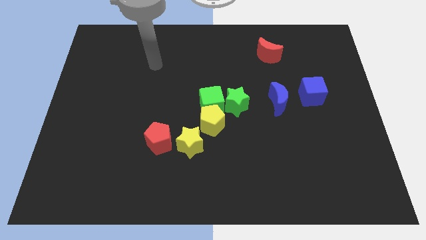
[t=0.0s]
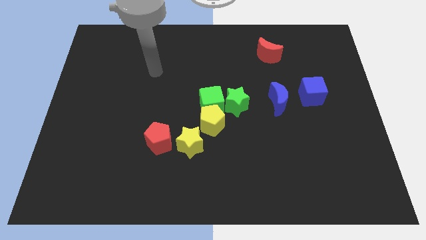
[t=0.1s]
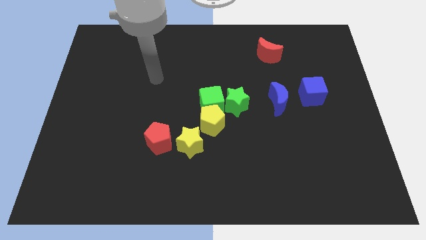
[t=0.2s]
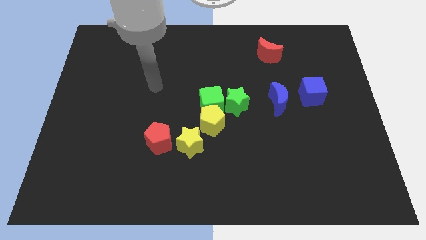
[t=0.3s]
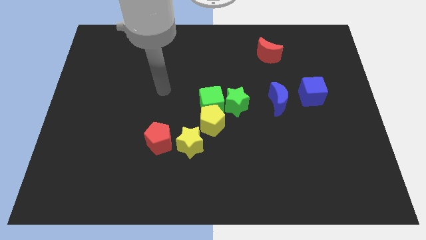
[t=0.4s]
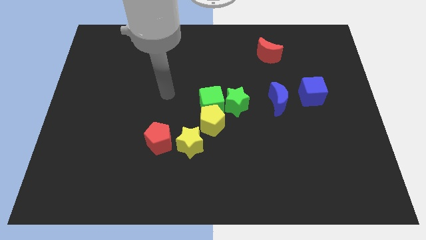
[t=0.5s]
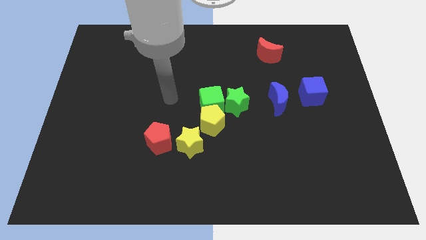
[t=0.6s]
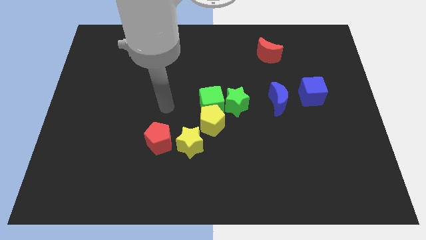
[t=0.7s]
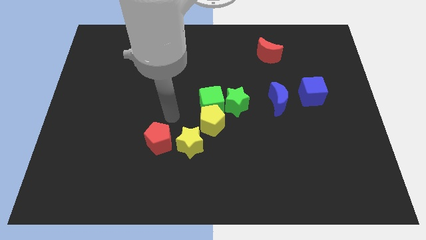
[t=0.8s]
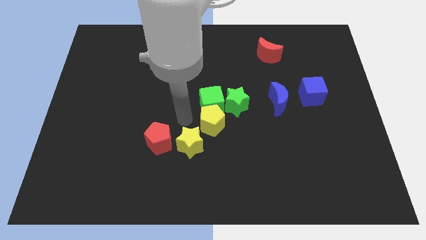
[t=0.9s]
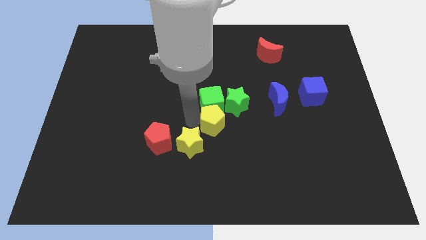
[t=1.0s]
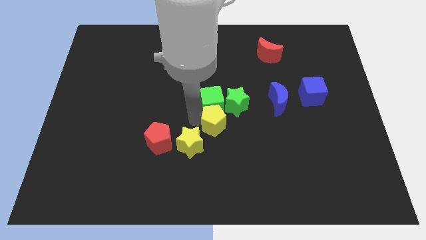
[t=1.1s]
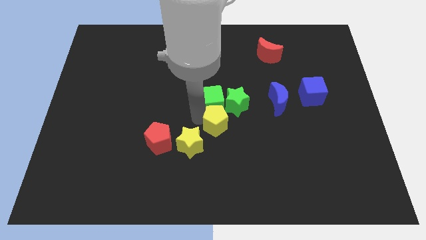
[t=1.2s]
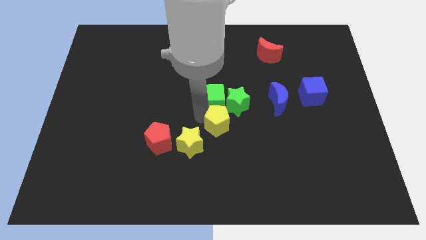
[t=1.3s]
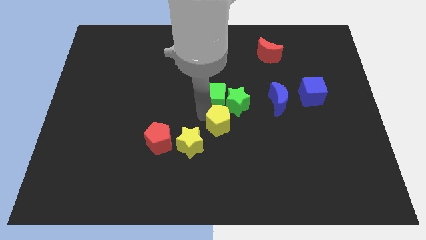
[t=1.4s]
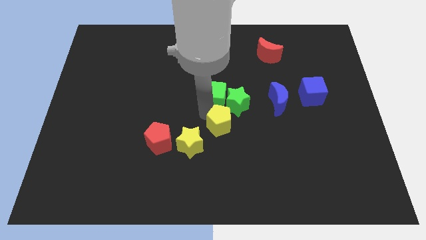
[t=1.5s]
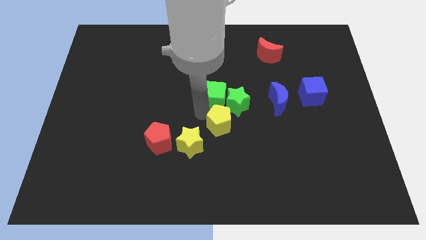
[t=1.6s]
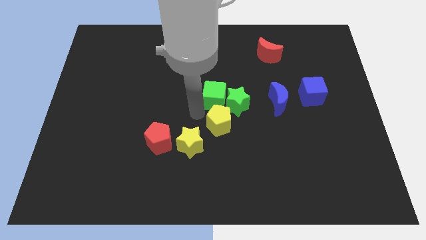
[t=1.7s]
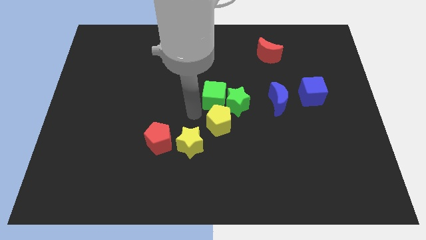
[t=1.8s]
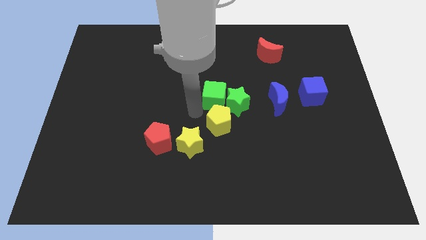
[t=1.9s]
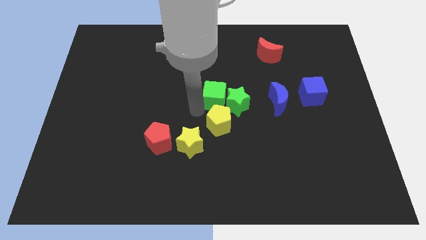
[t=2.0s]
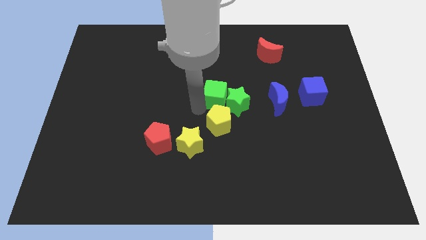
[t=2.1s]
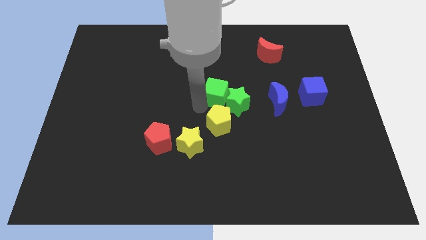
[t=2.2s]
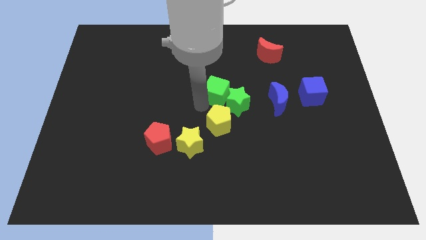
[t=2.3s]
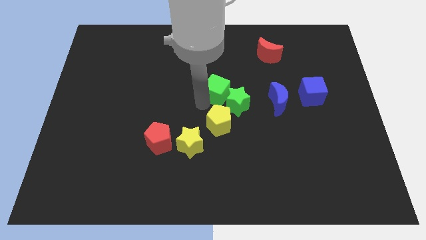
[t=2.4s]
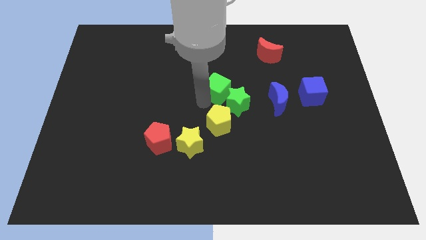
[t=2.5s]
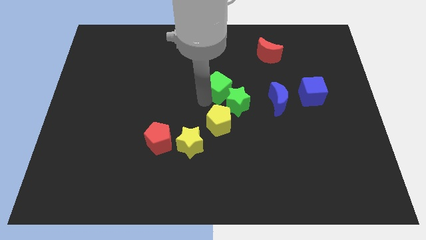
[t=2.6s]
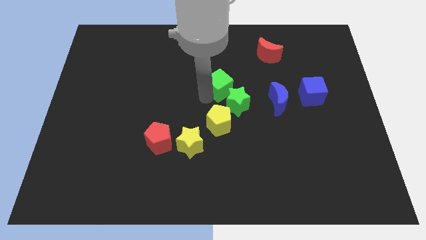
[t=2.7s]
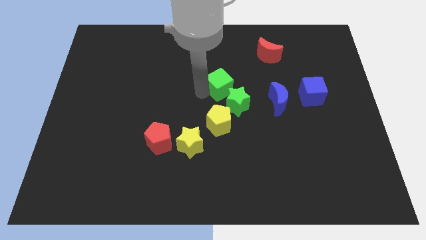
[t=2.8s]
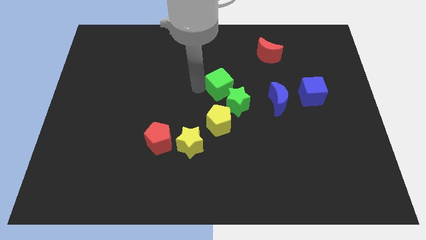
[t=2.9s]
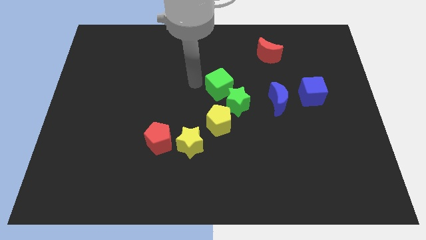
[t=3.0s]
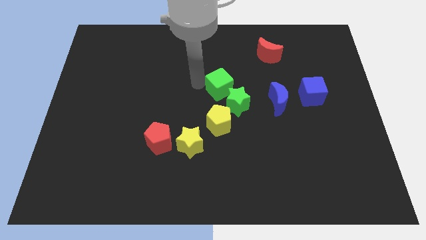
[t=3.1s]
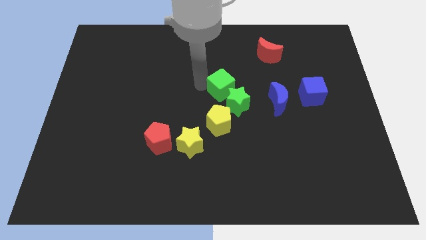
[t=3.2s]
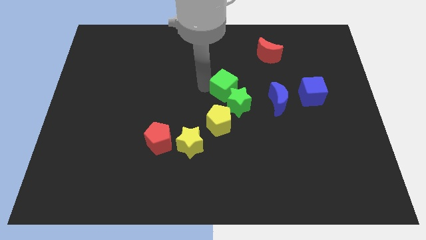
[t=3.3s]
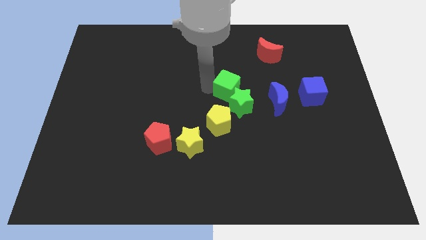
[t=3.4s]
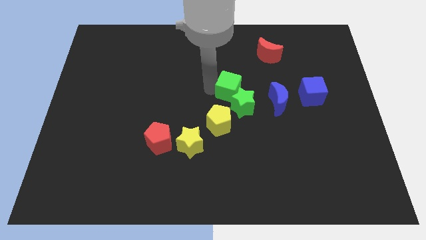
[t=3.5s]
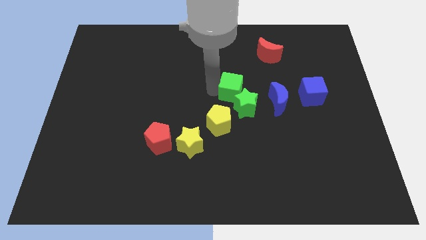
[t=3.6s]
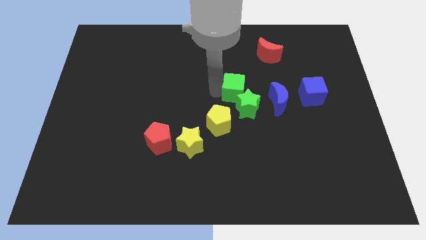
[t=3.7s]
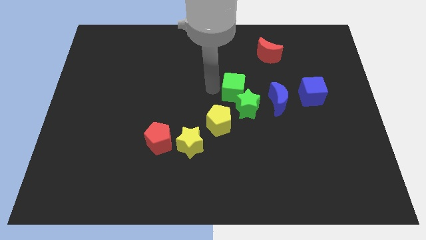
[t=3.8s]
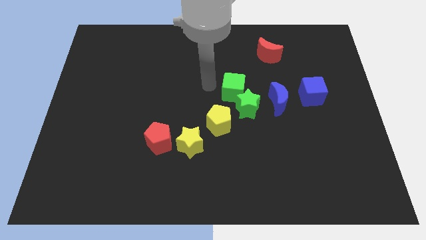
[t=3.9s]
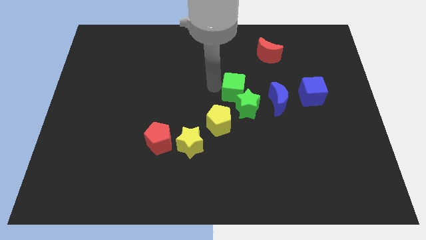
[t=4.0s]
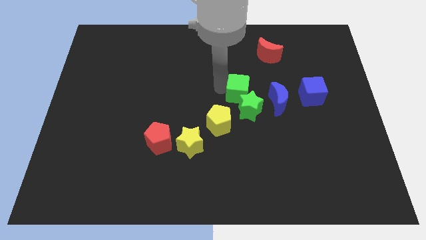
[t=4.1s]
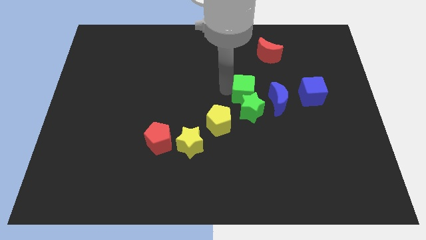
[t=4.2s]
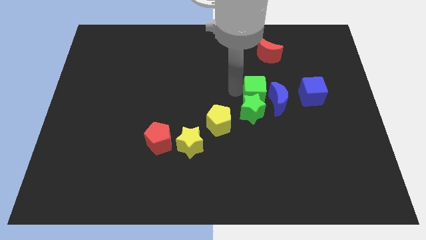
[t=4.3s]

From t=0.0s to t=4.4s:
move the green cube close to the blue moon

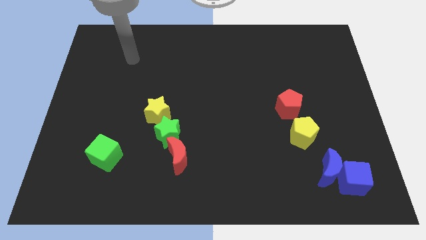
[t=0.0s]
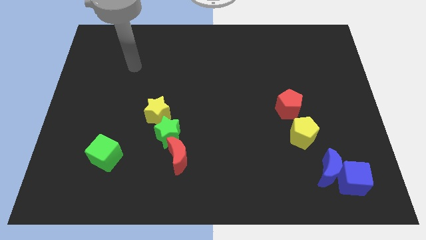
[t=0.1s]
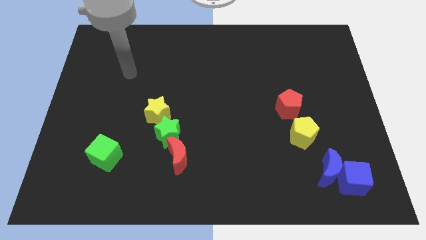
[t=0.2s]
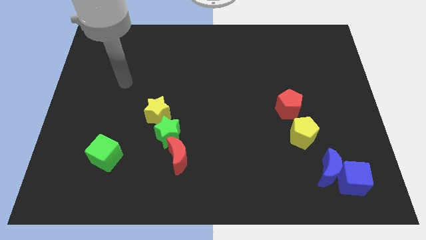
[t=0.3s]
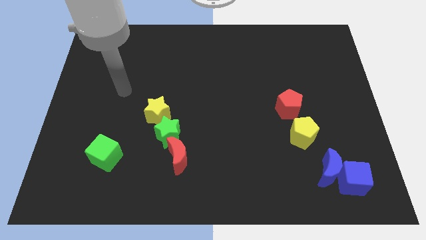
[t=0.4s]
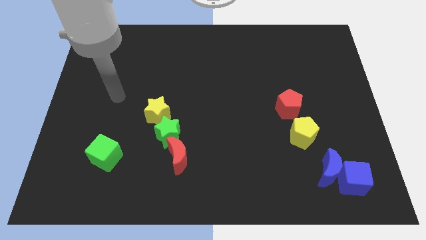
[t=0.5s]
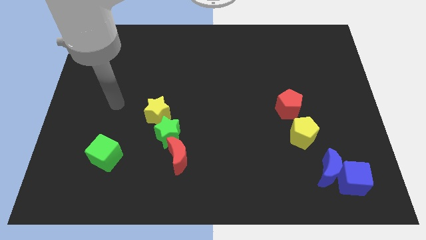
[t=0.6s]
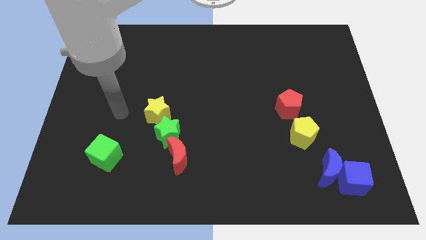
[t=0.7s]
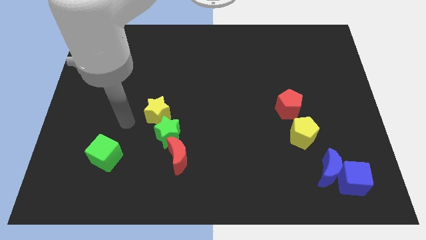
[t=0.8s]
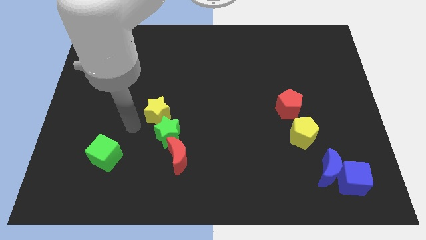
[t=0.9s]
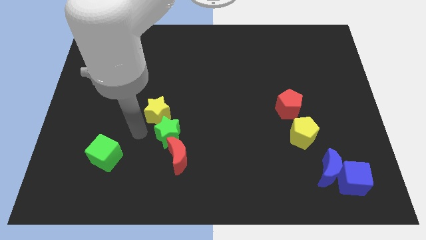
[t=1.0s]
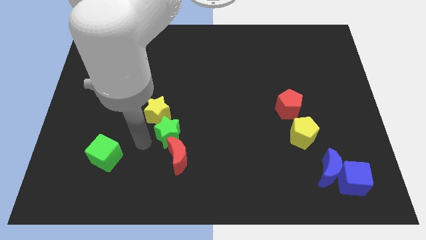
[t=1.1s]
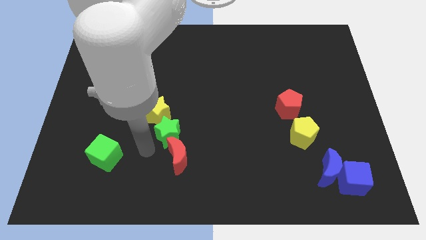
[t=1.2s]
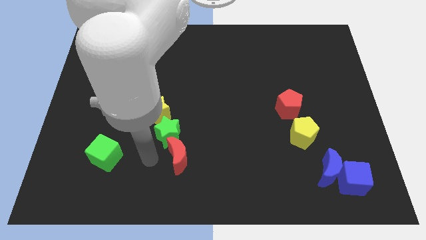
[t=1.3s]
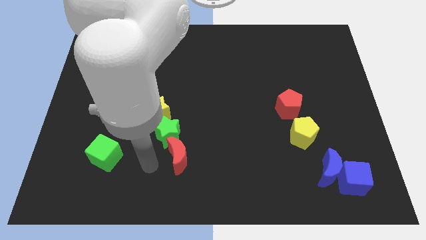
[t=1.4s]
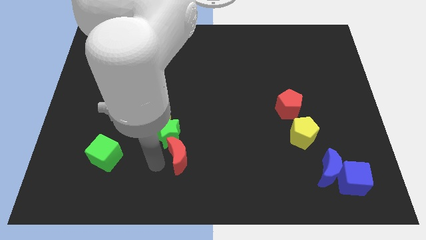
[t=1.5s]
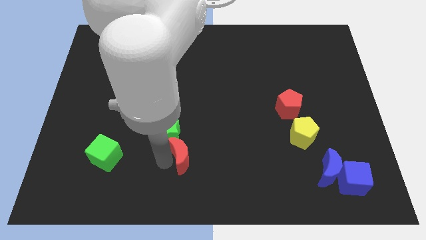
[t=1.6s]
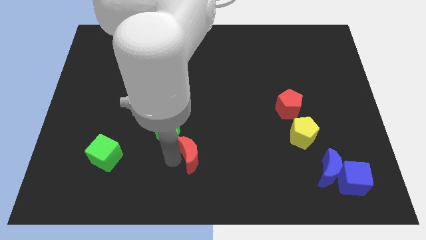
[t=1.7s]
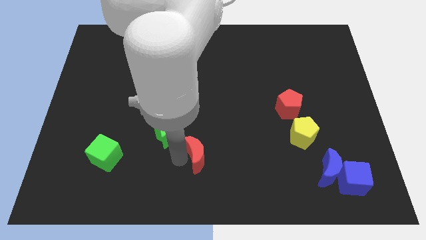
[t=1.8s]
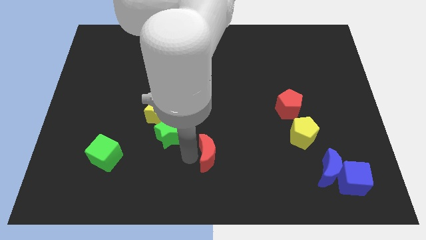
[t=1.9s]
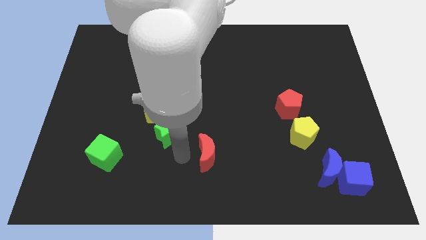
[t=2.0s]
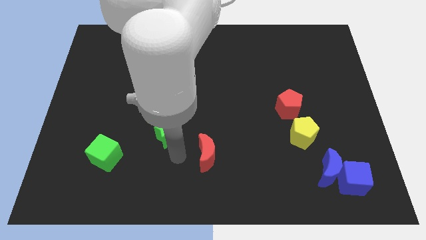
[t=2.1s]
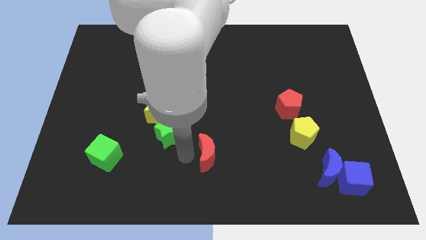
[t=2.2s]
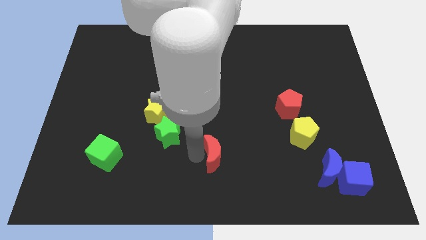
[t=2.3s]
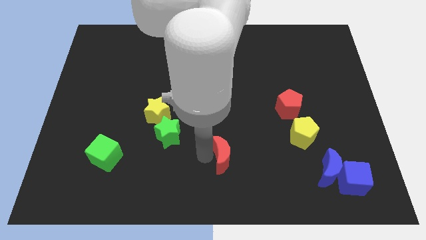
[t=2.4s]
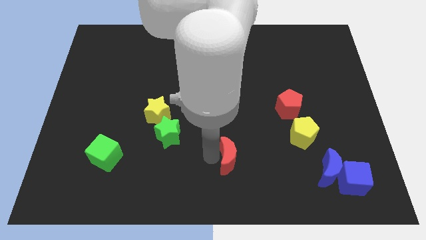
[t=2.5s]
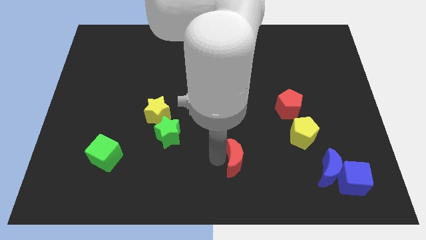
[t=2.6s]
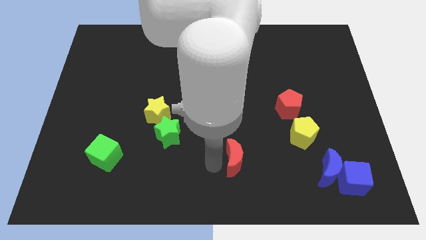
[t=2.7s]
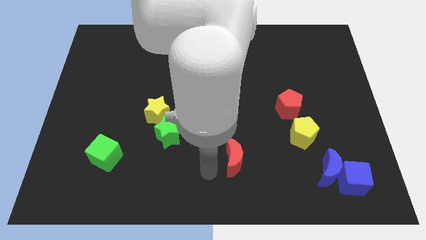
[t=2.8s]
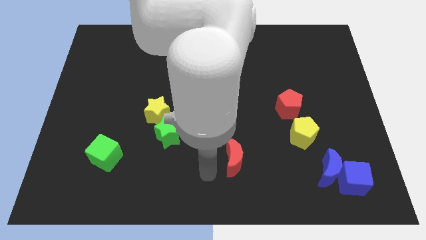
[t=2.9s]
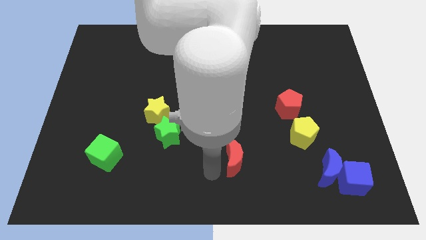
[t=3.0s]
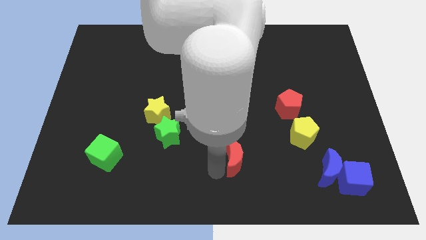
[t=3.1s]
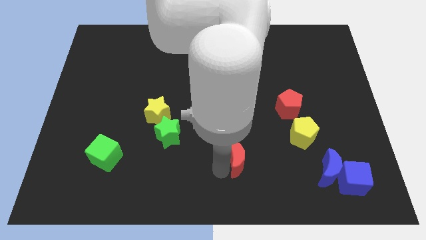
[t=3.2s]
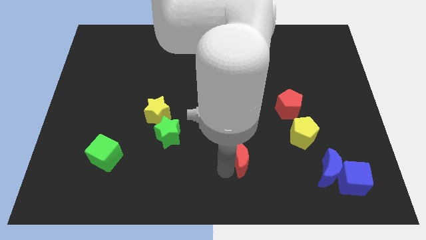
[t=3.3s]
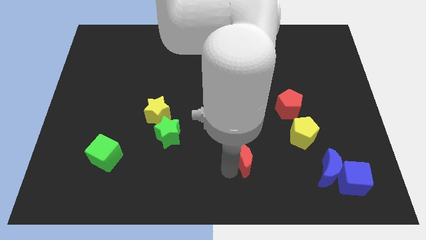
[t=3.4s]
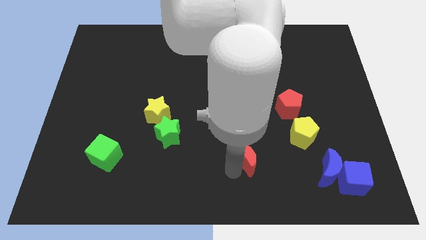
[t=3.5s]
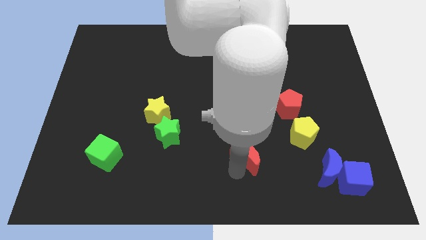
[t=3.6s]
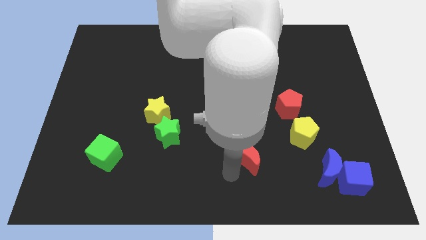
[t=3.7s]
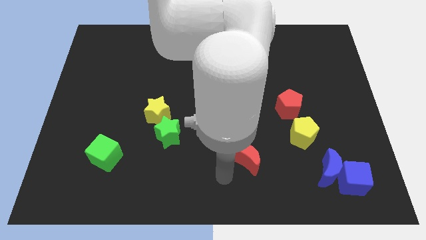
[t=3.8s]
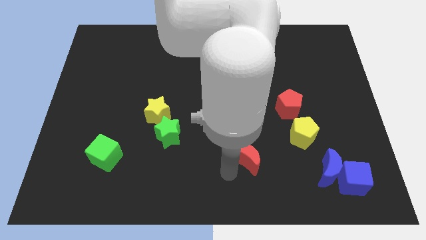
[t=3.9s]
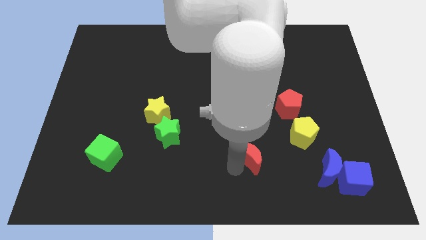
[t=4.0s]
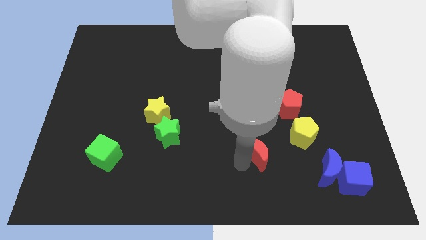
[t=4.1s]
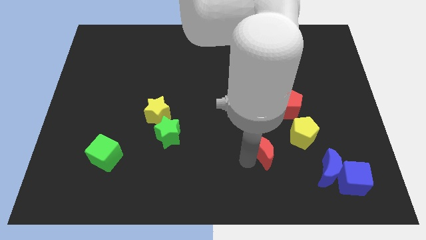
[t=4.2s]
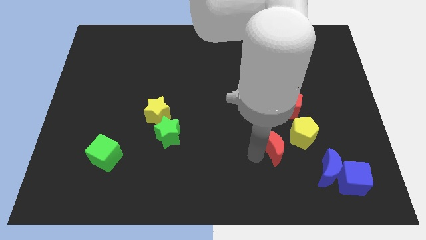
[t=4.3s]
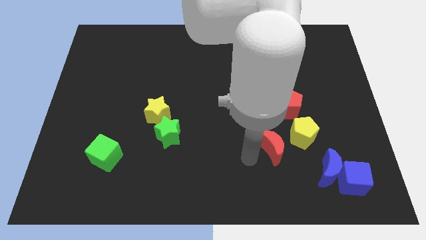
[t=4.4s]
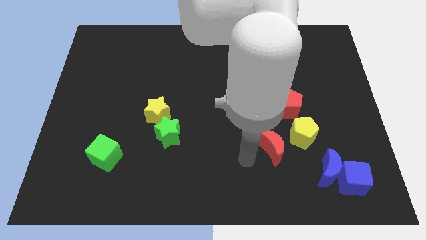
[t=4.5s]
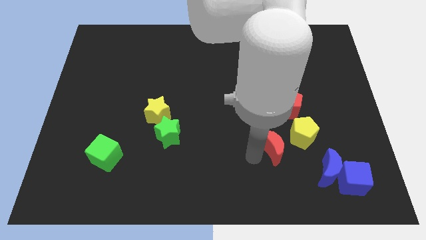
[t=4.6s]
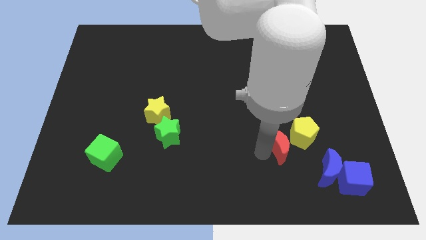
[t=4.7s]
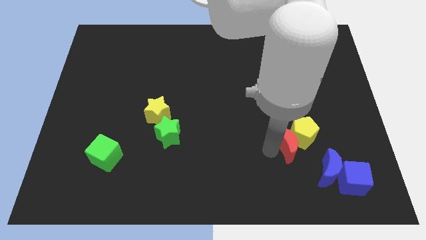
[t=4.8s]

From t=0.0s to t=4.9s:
put the red moon to the yellow pentagon
